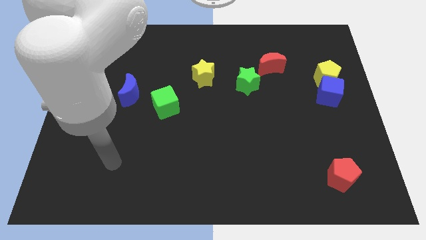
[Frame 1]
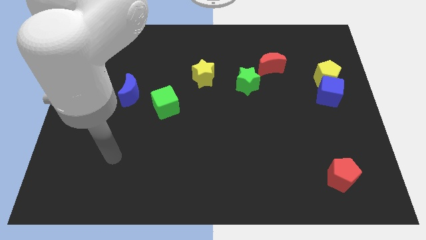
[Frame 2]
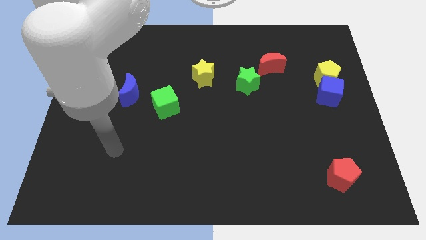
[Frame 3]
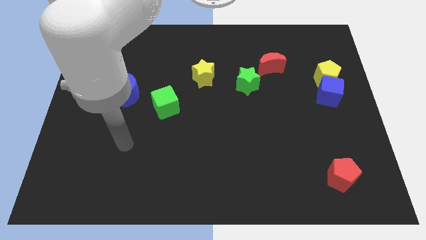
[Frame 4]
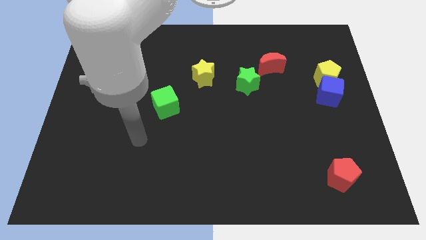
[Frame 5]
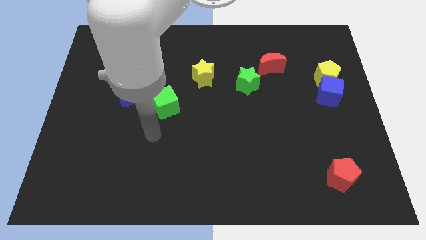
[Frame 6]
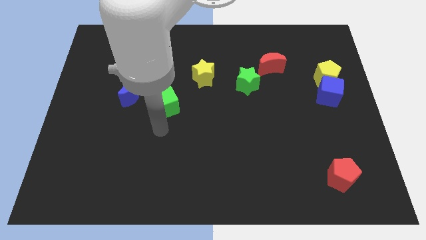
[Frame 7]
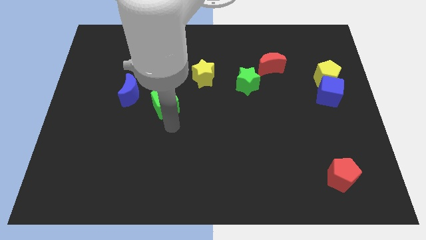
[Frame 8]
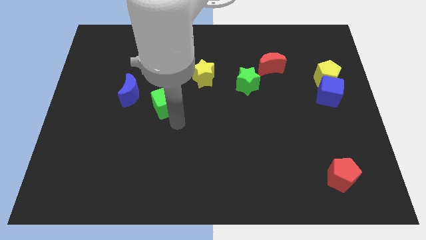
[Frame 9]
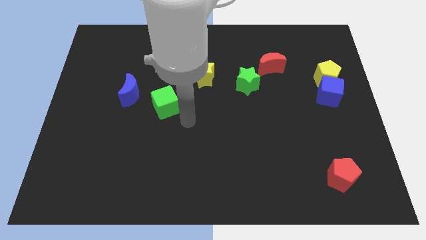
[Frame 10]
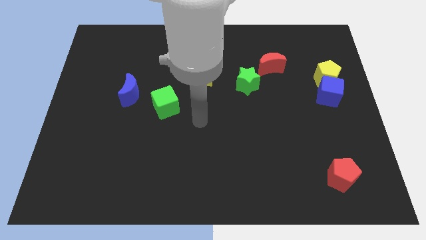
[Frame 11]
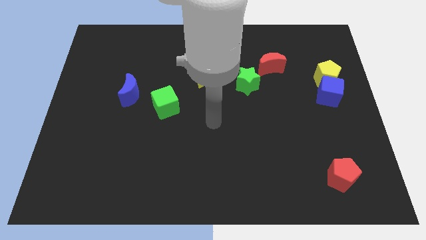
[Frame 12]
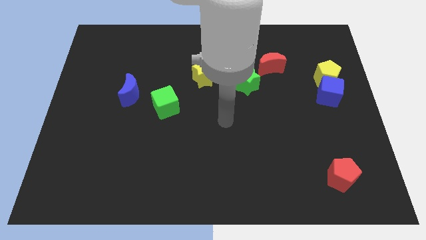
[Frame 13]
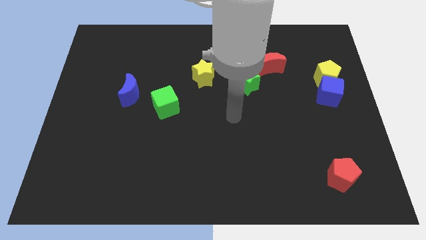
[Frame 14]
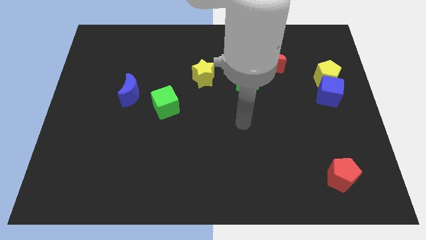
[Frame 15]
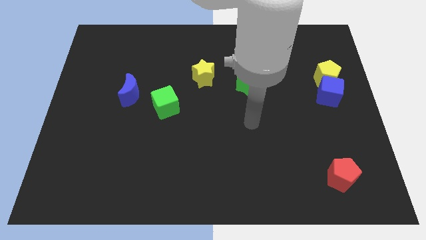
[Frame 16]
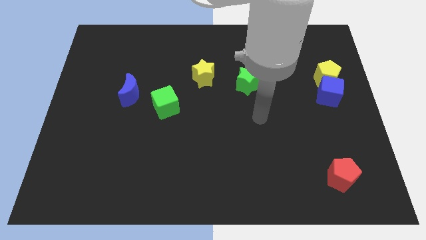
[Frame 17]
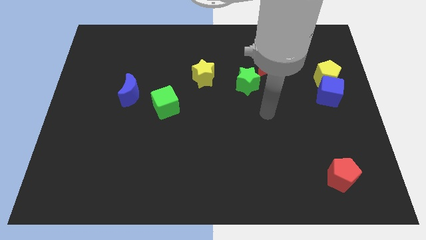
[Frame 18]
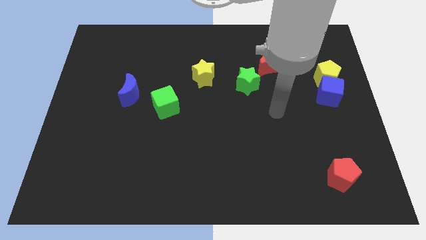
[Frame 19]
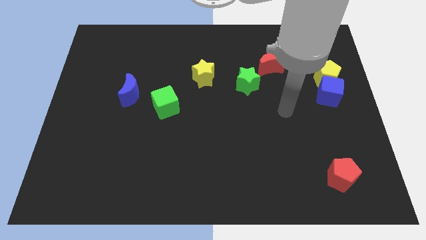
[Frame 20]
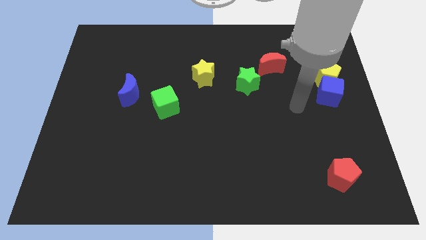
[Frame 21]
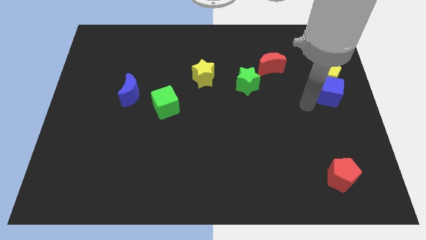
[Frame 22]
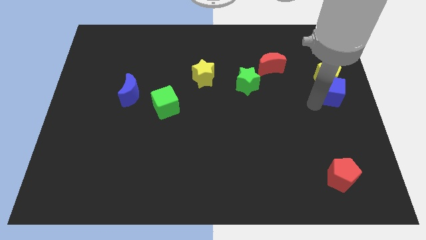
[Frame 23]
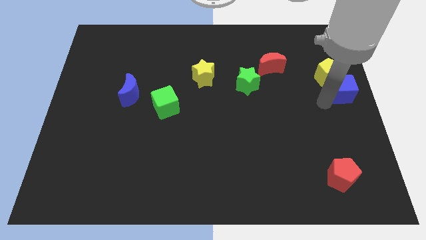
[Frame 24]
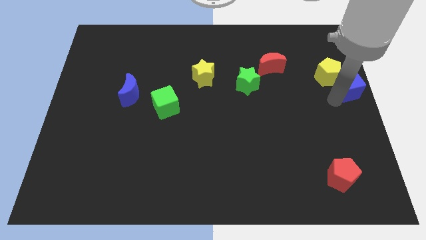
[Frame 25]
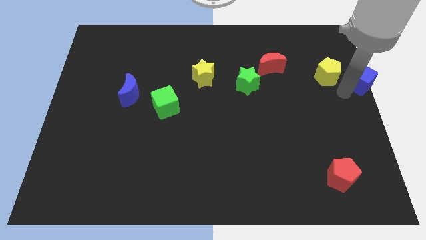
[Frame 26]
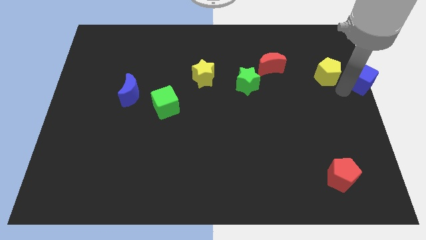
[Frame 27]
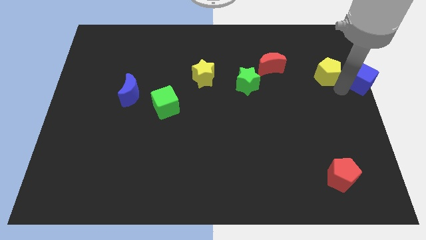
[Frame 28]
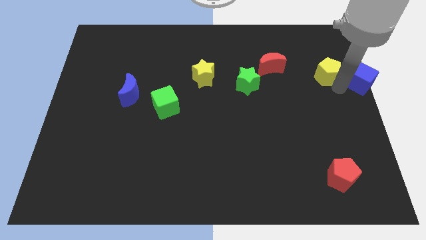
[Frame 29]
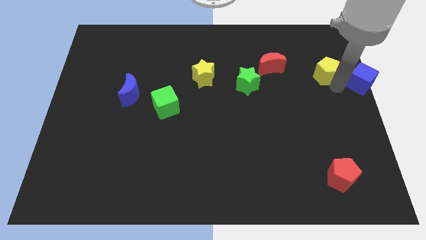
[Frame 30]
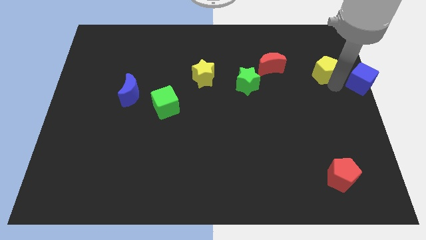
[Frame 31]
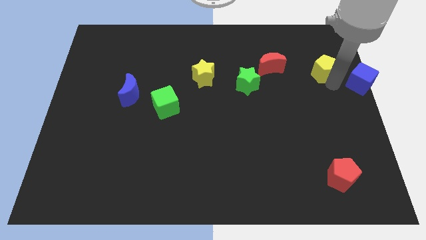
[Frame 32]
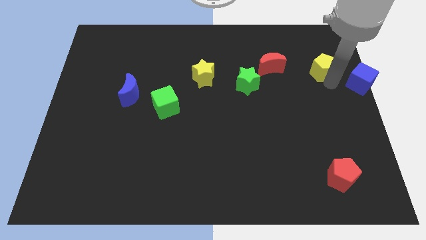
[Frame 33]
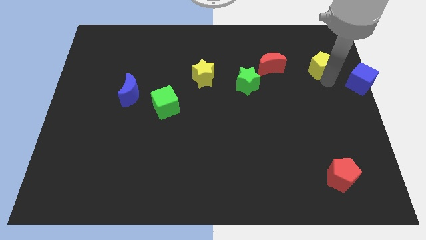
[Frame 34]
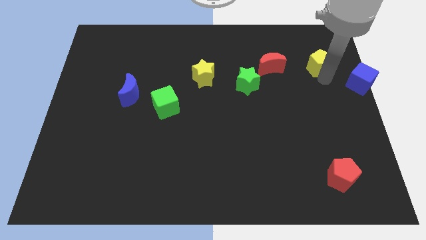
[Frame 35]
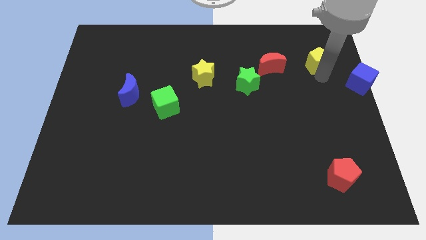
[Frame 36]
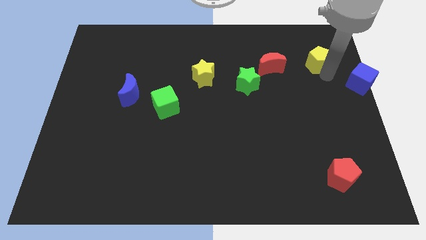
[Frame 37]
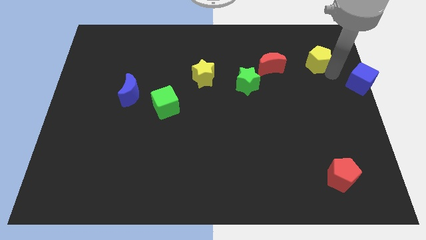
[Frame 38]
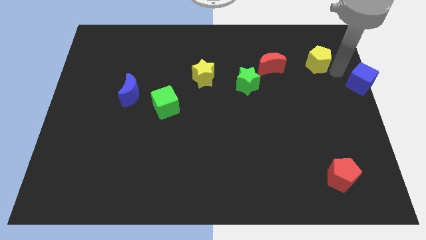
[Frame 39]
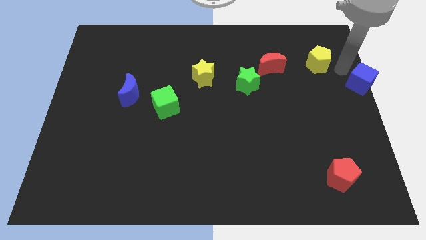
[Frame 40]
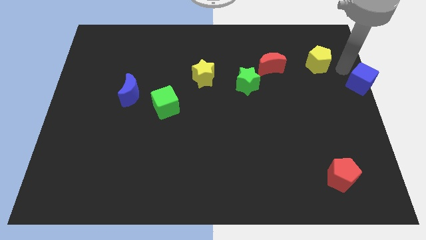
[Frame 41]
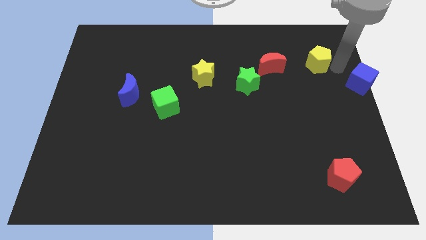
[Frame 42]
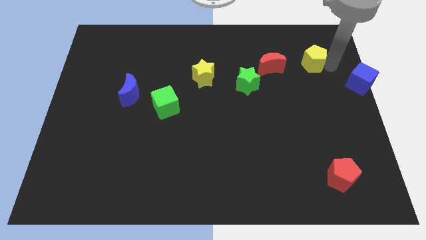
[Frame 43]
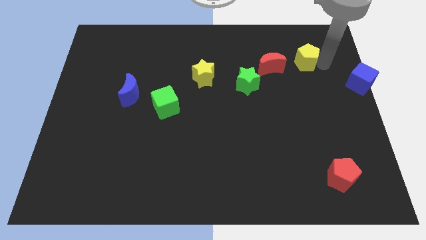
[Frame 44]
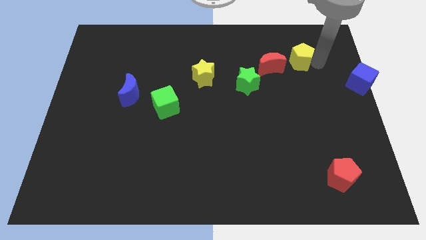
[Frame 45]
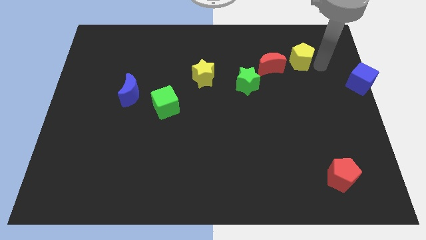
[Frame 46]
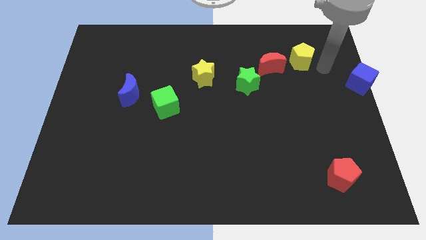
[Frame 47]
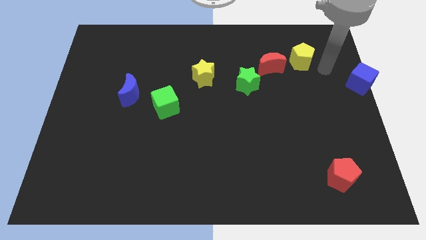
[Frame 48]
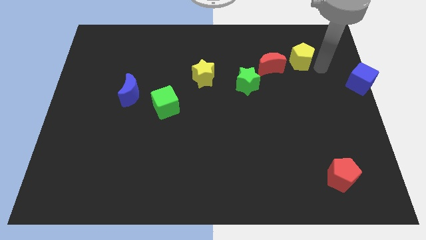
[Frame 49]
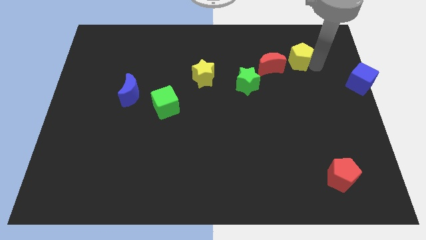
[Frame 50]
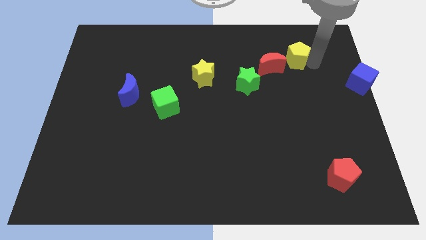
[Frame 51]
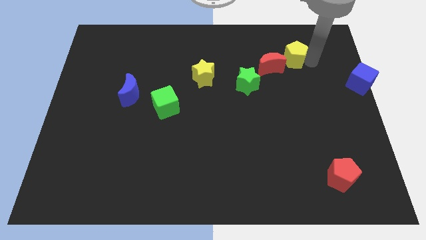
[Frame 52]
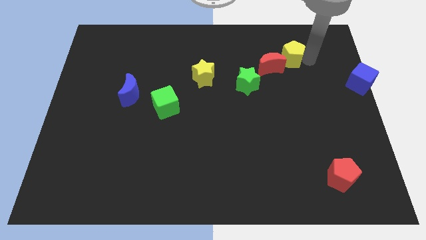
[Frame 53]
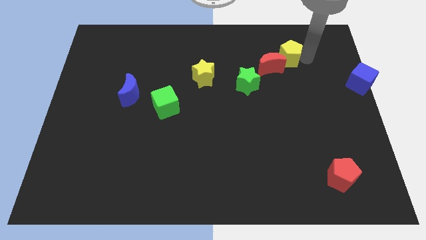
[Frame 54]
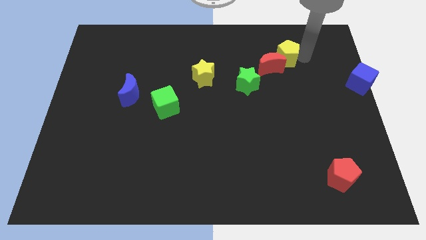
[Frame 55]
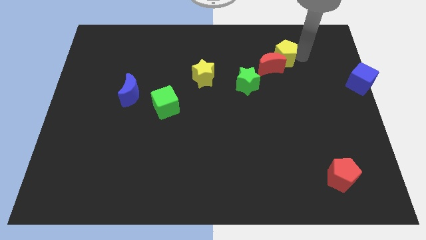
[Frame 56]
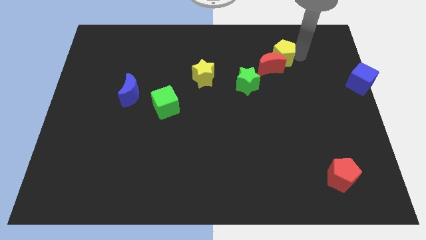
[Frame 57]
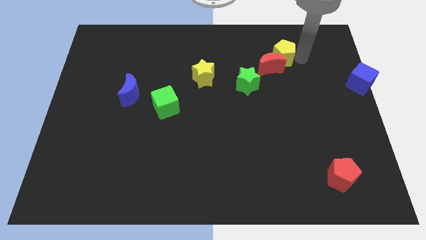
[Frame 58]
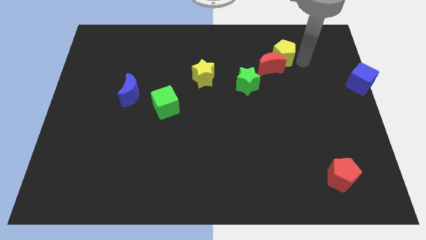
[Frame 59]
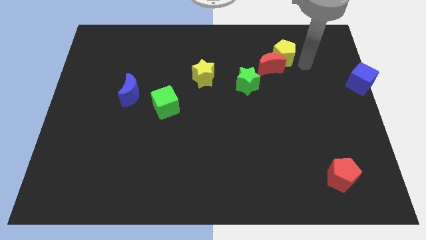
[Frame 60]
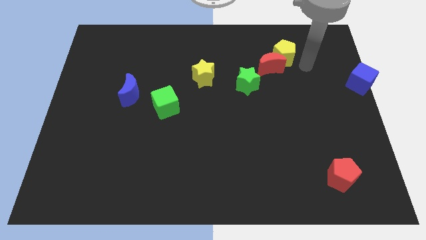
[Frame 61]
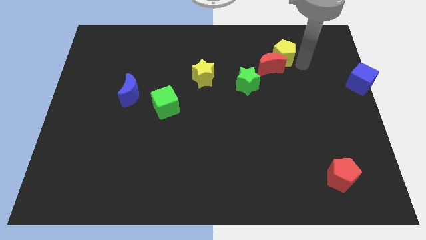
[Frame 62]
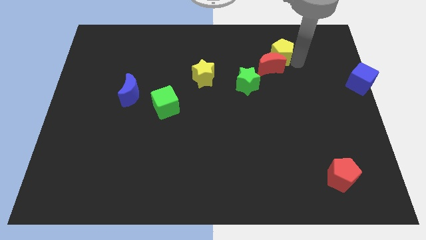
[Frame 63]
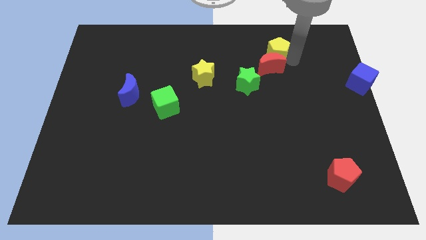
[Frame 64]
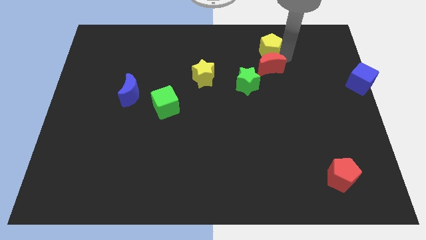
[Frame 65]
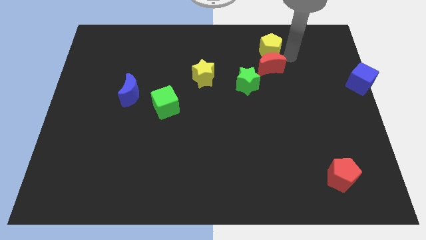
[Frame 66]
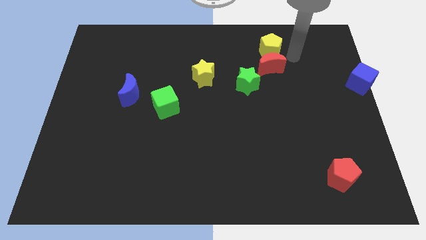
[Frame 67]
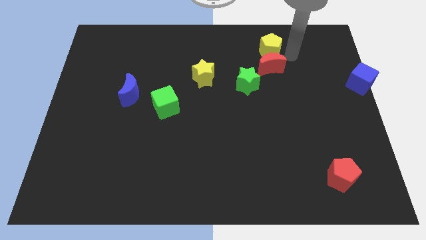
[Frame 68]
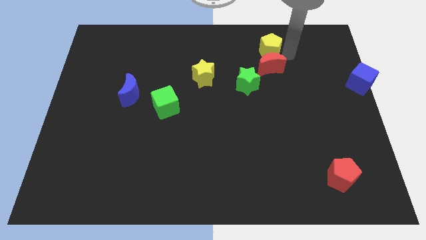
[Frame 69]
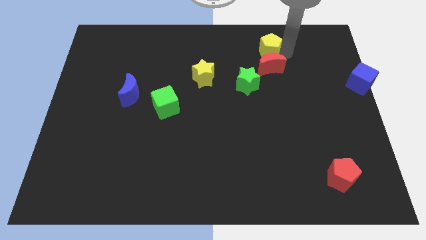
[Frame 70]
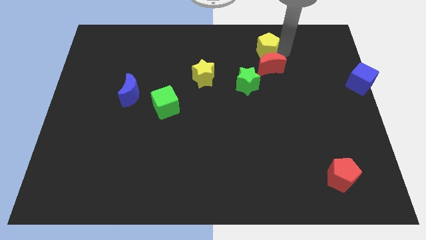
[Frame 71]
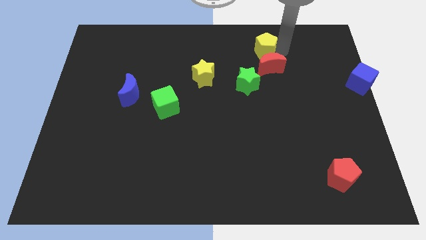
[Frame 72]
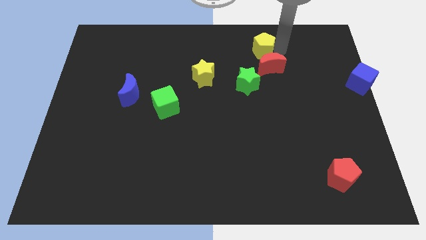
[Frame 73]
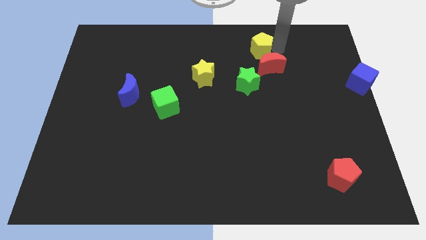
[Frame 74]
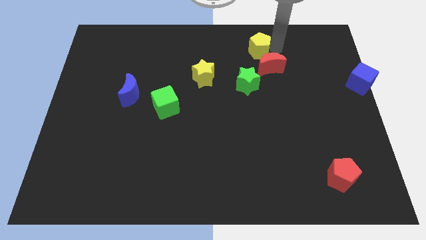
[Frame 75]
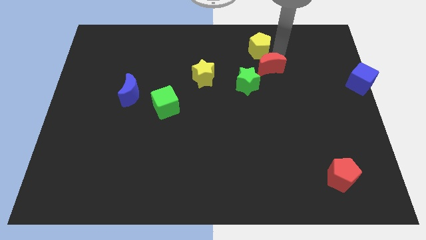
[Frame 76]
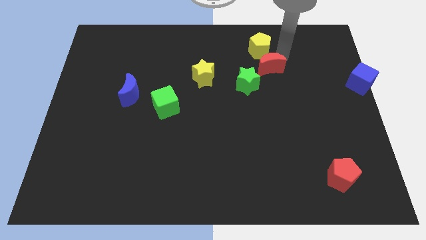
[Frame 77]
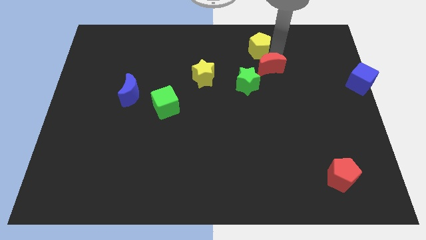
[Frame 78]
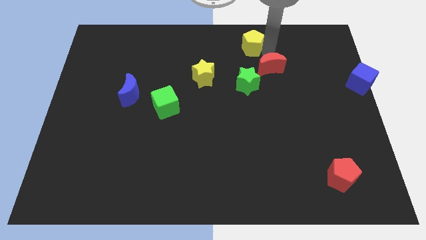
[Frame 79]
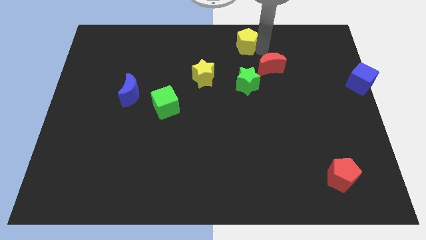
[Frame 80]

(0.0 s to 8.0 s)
move the yellow pentagon to the top side
